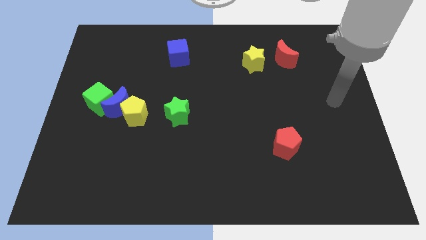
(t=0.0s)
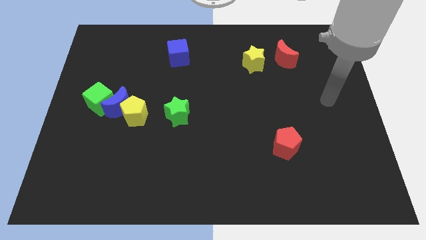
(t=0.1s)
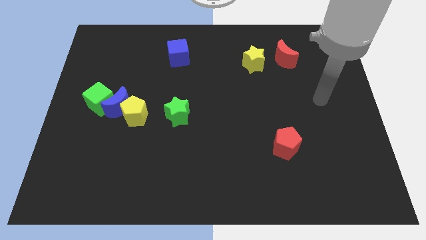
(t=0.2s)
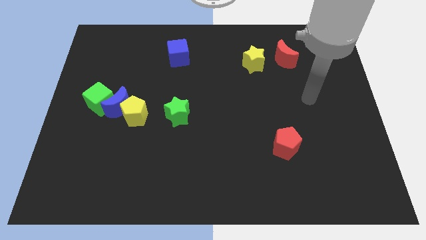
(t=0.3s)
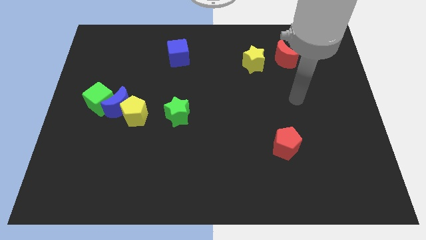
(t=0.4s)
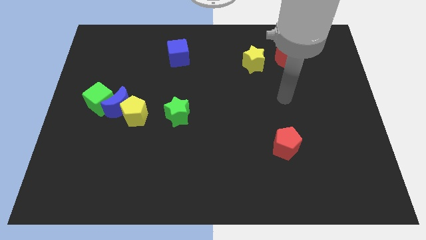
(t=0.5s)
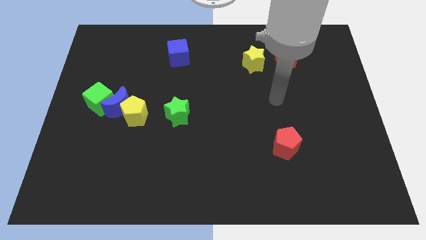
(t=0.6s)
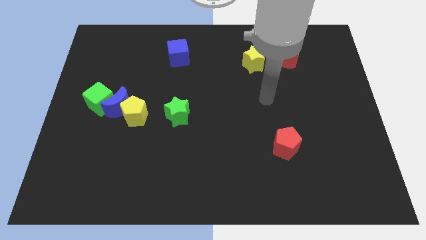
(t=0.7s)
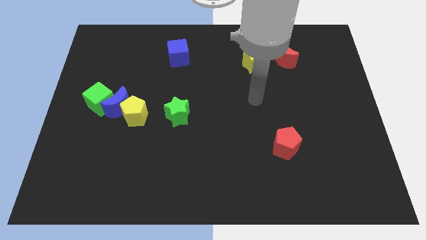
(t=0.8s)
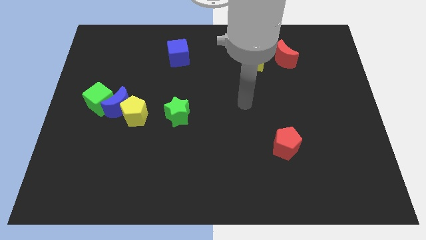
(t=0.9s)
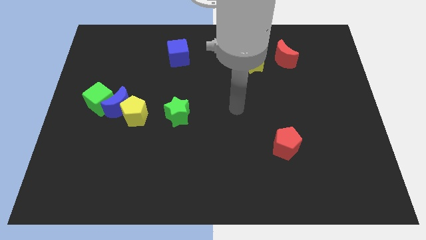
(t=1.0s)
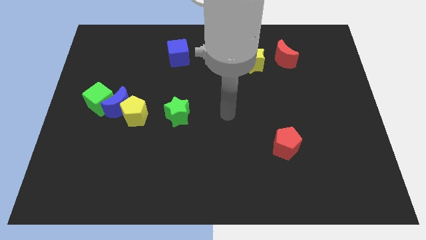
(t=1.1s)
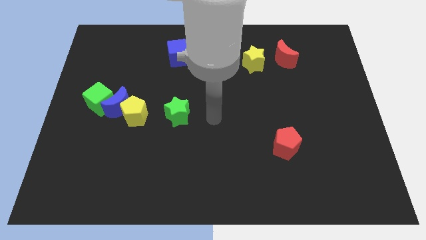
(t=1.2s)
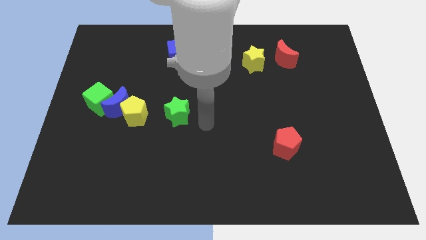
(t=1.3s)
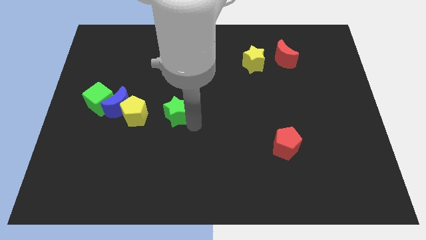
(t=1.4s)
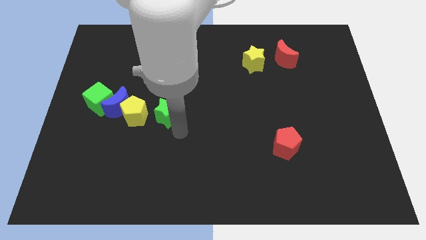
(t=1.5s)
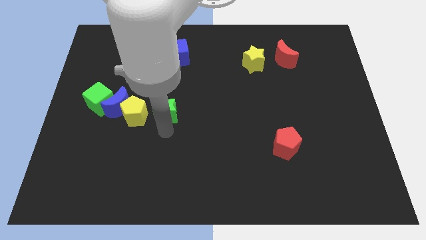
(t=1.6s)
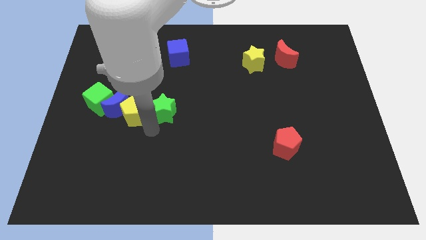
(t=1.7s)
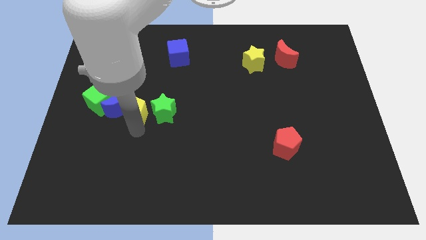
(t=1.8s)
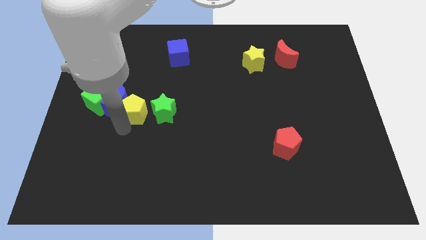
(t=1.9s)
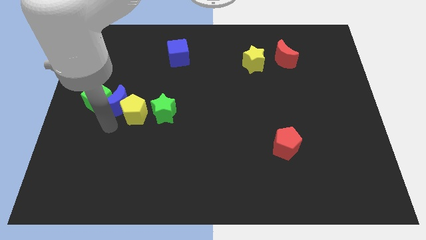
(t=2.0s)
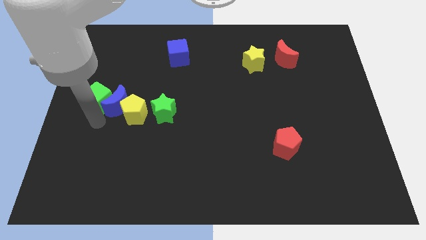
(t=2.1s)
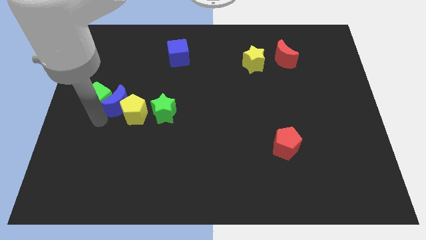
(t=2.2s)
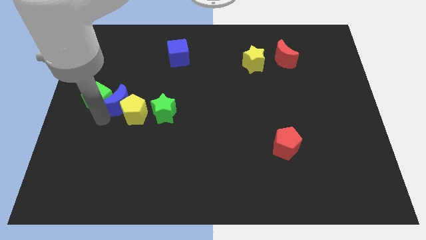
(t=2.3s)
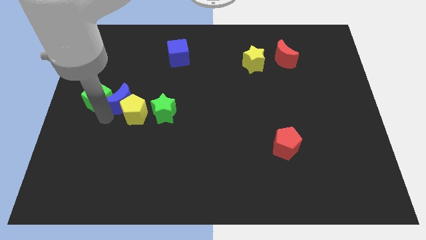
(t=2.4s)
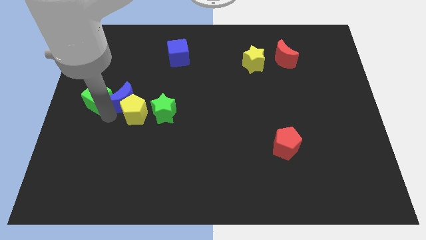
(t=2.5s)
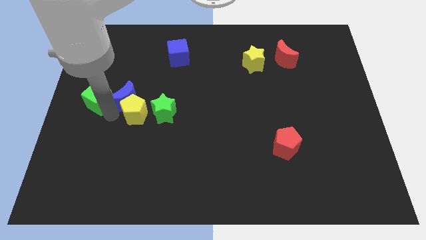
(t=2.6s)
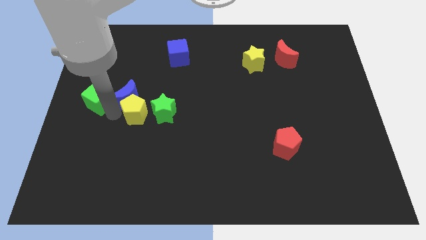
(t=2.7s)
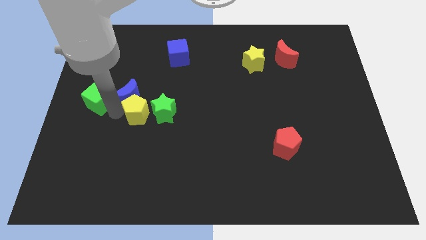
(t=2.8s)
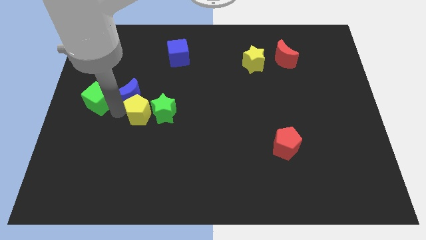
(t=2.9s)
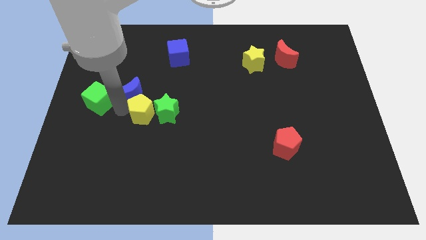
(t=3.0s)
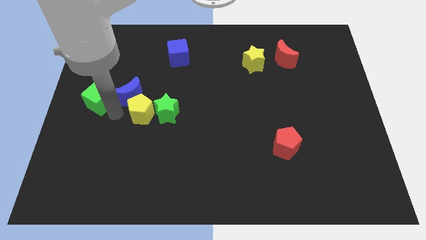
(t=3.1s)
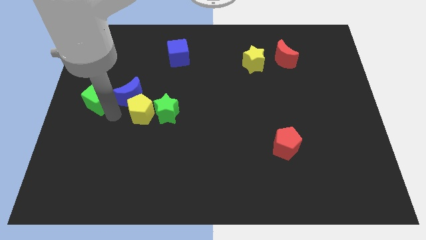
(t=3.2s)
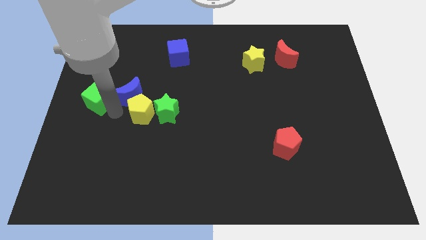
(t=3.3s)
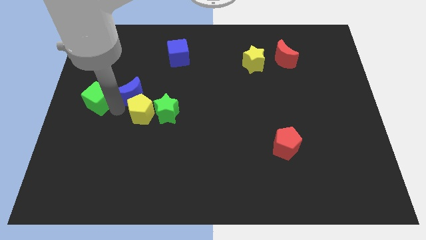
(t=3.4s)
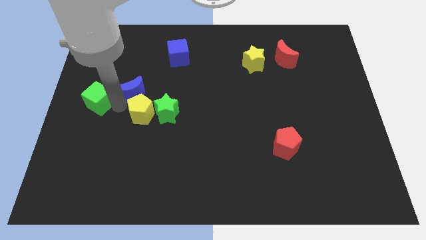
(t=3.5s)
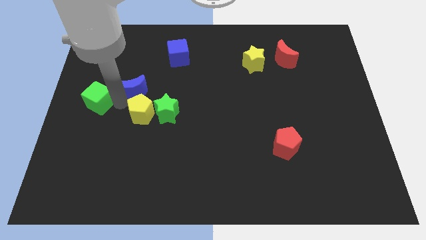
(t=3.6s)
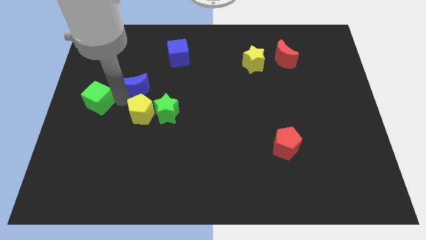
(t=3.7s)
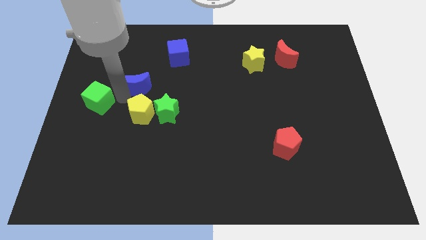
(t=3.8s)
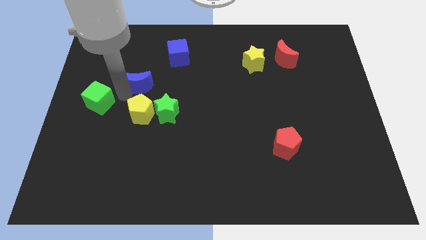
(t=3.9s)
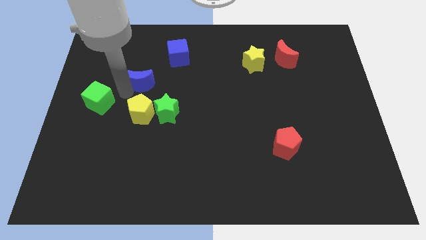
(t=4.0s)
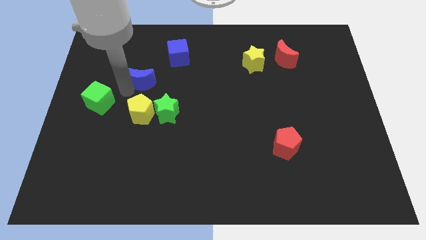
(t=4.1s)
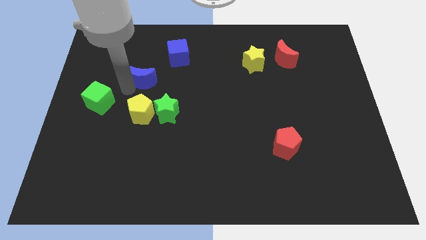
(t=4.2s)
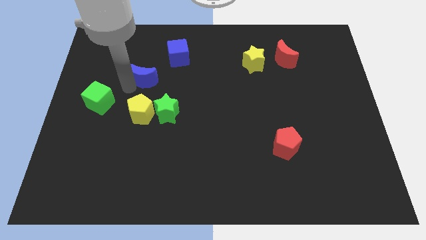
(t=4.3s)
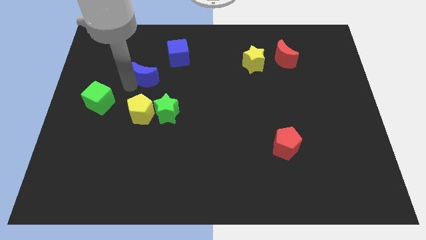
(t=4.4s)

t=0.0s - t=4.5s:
move the blue moon away from the yellow pentagon and green cube

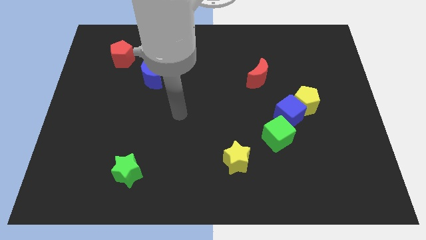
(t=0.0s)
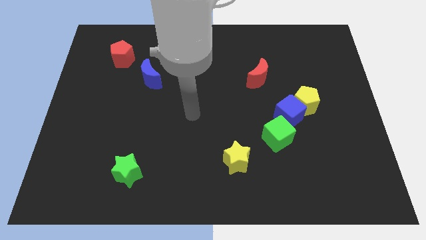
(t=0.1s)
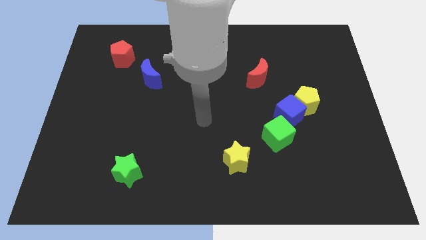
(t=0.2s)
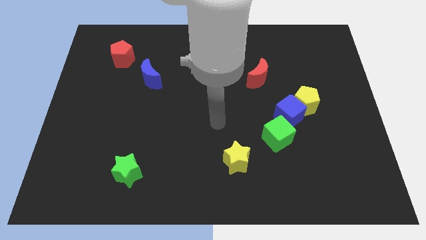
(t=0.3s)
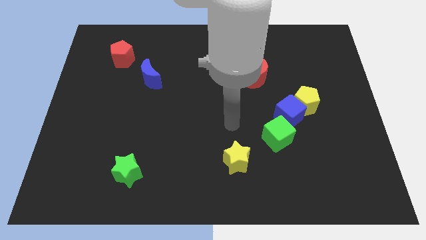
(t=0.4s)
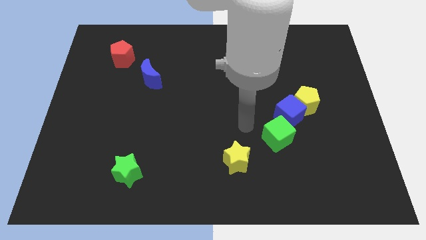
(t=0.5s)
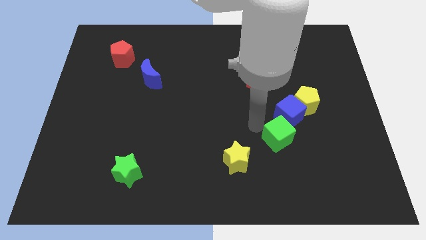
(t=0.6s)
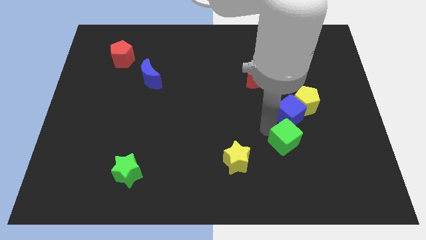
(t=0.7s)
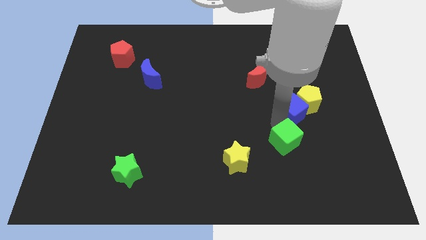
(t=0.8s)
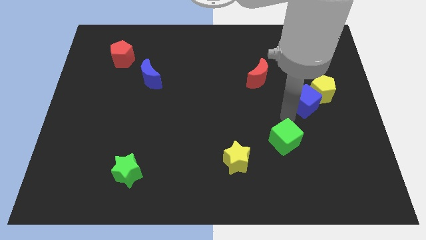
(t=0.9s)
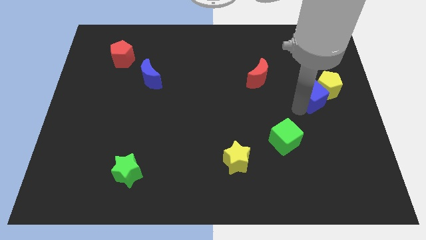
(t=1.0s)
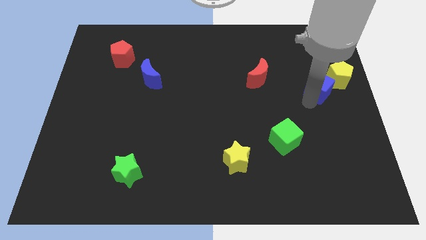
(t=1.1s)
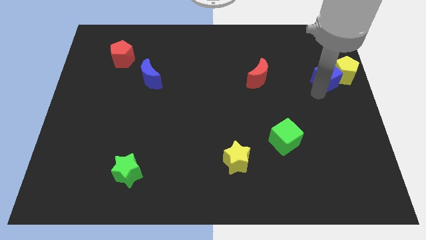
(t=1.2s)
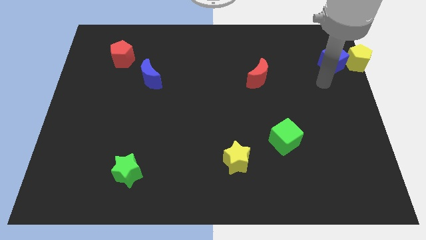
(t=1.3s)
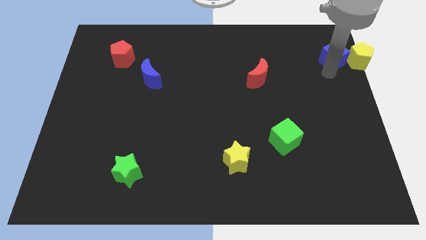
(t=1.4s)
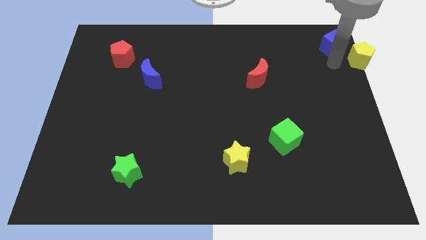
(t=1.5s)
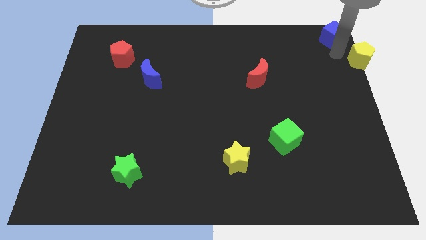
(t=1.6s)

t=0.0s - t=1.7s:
move the yellow pentagon away from the blue cube

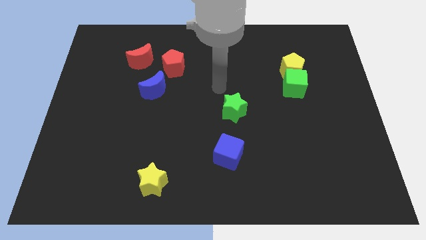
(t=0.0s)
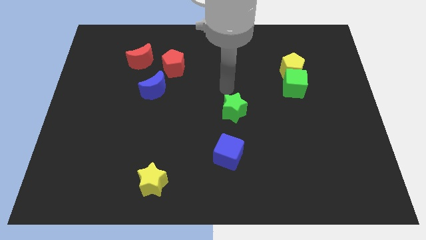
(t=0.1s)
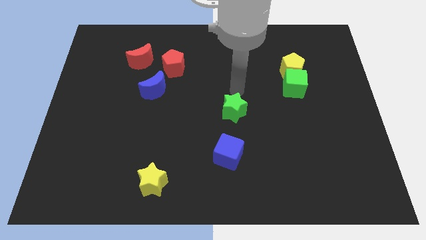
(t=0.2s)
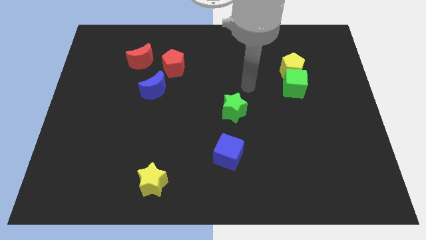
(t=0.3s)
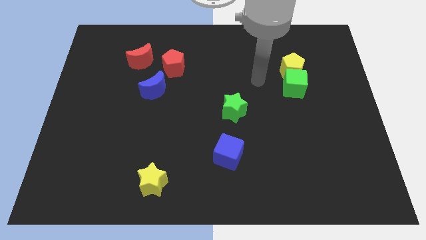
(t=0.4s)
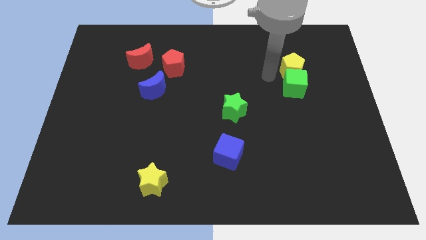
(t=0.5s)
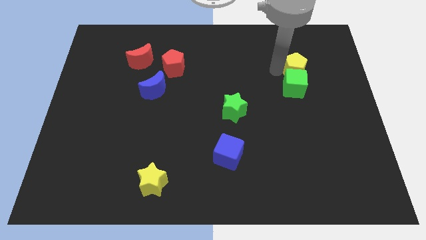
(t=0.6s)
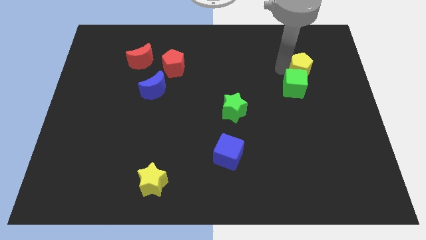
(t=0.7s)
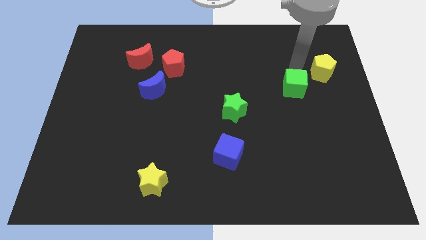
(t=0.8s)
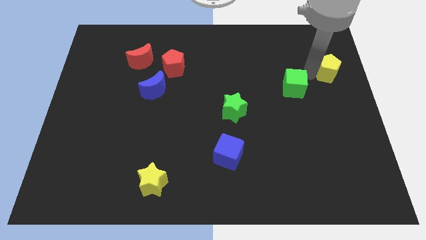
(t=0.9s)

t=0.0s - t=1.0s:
pull the green cube apart from the yellow pentagon

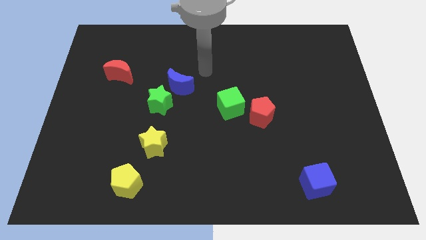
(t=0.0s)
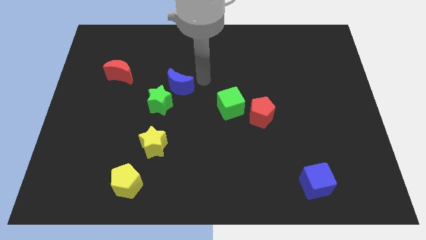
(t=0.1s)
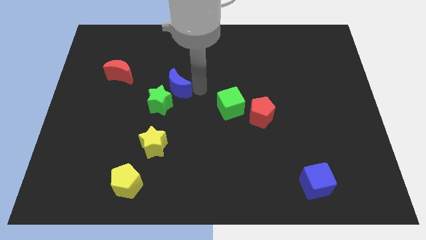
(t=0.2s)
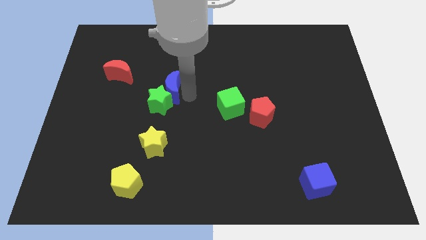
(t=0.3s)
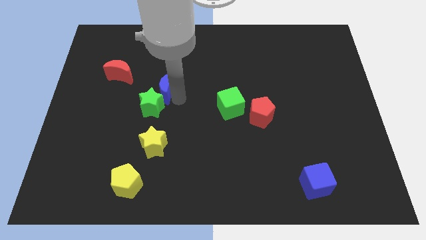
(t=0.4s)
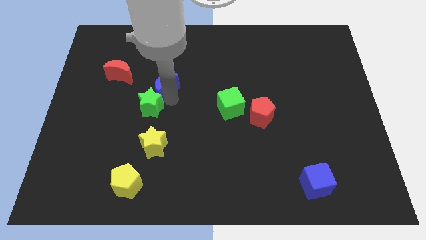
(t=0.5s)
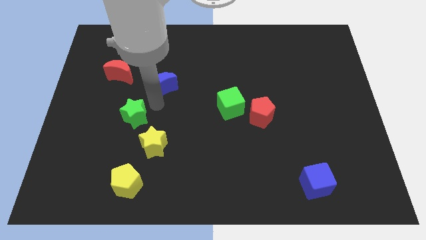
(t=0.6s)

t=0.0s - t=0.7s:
separate the blue moon from the green star

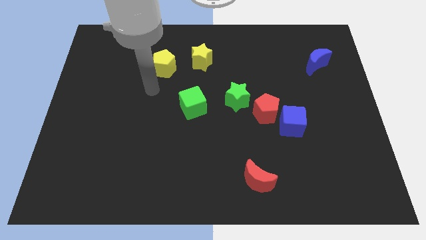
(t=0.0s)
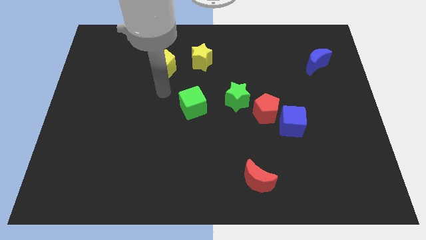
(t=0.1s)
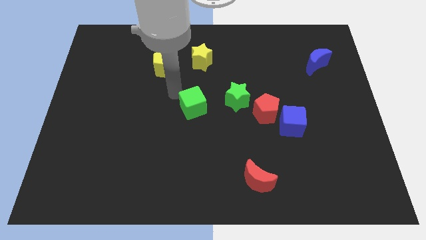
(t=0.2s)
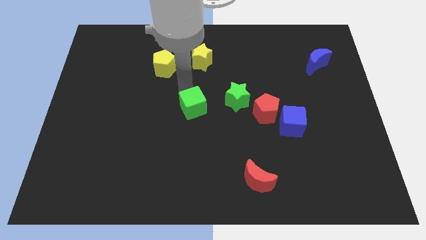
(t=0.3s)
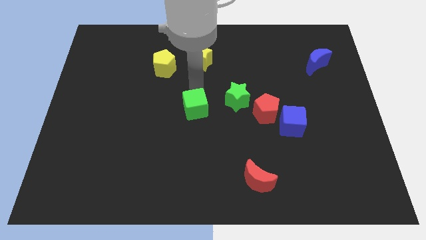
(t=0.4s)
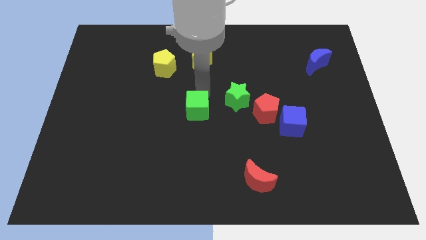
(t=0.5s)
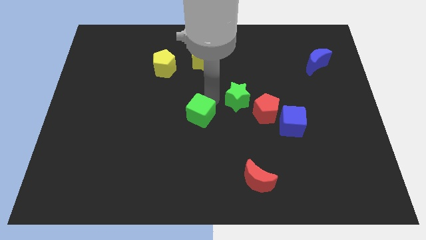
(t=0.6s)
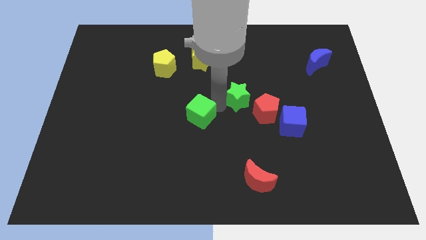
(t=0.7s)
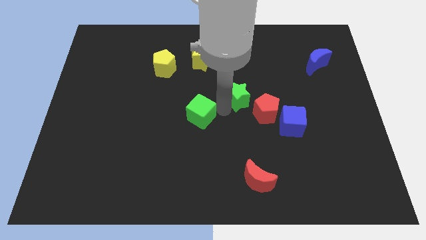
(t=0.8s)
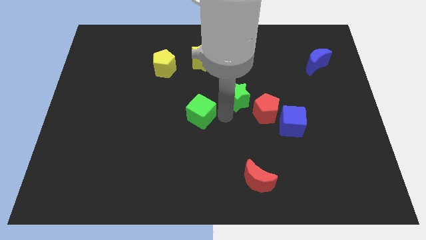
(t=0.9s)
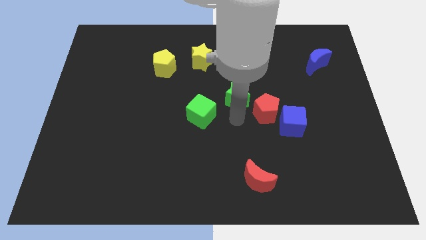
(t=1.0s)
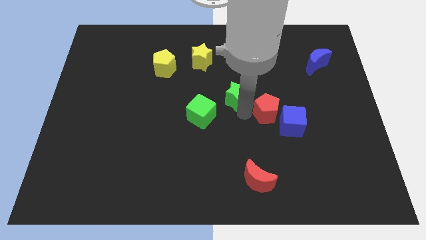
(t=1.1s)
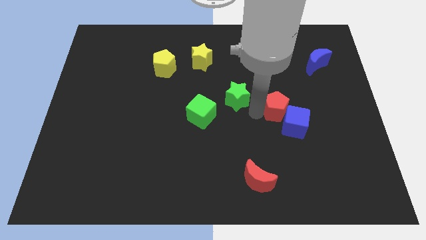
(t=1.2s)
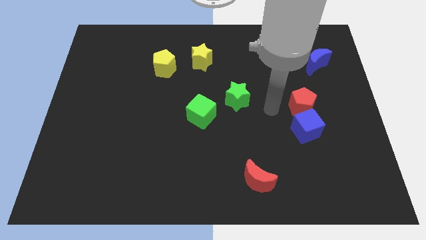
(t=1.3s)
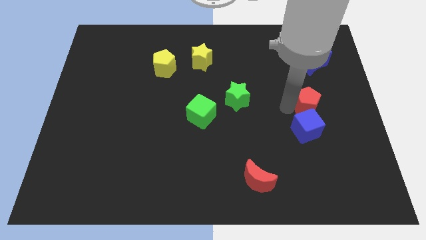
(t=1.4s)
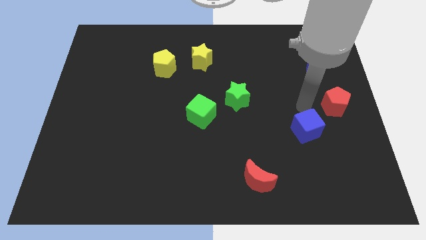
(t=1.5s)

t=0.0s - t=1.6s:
pull the blue cube apart from the red pentagon
